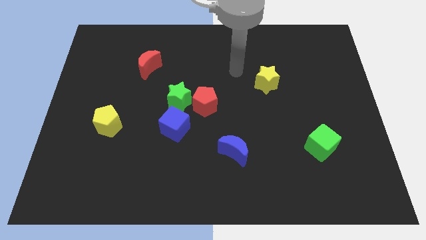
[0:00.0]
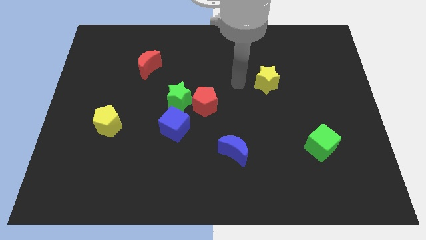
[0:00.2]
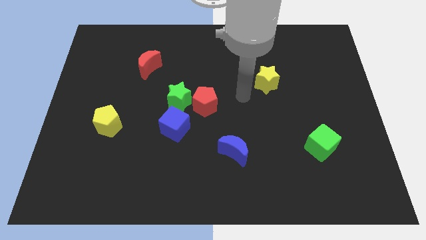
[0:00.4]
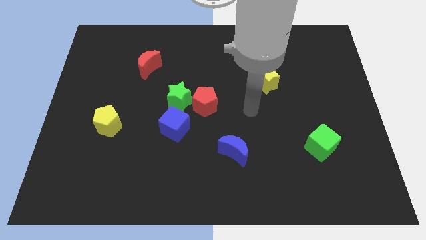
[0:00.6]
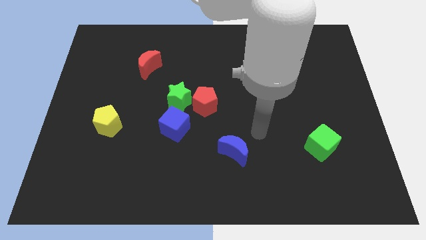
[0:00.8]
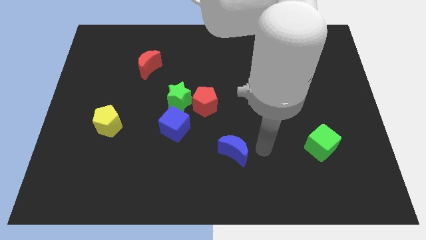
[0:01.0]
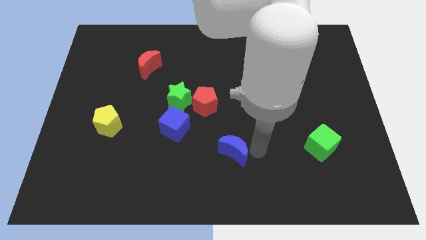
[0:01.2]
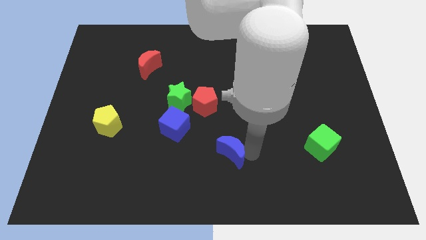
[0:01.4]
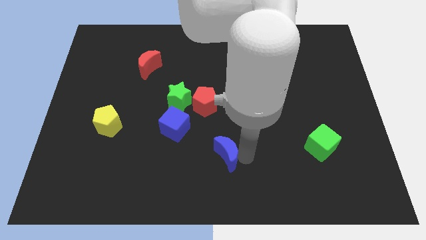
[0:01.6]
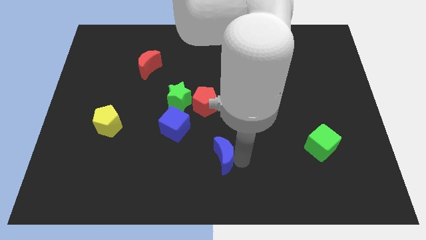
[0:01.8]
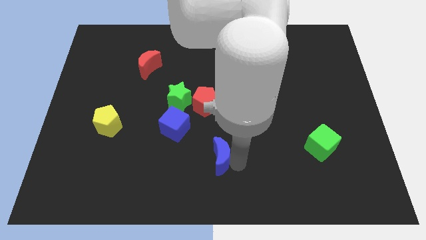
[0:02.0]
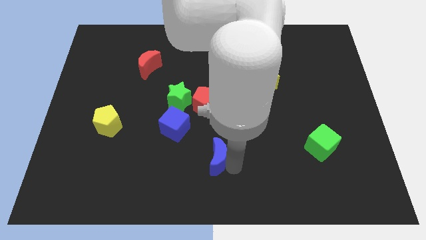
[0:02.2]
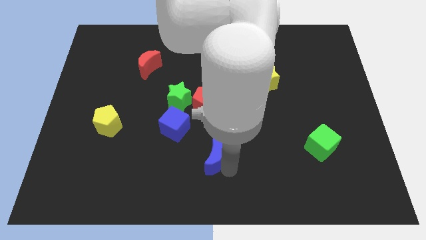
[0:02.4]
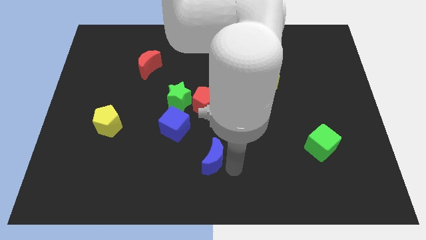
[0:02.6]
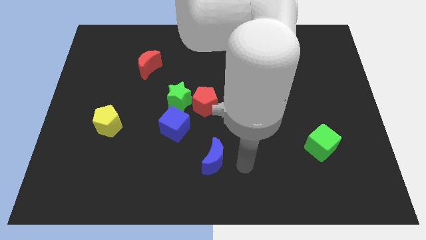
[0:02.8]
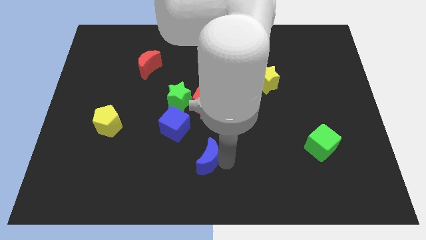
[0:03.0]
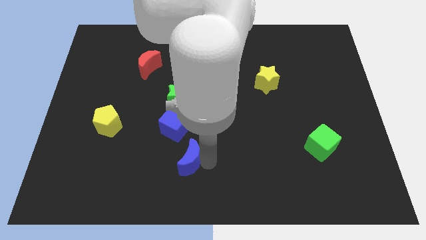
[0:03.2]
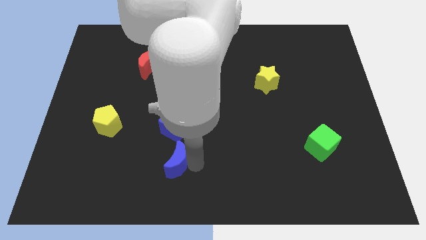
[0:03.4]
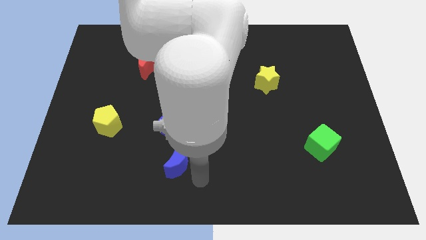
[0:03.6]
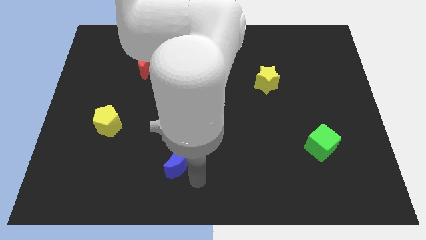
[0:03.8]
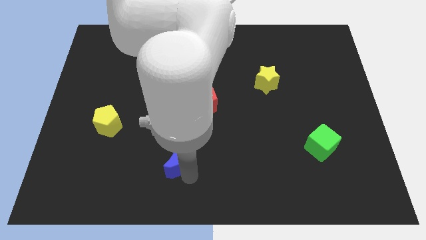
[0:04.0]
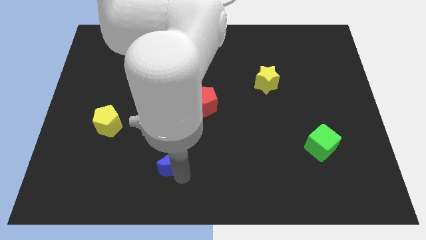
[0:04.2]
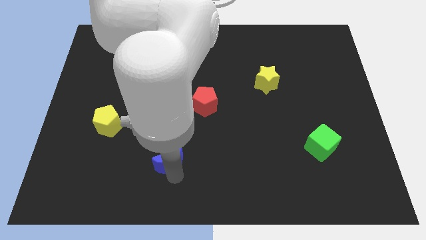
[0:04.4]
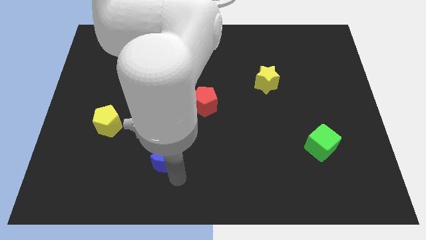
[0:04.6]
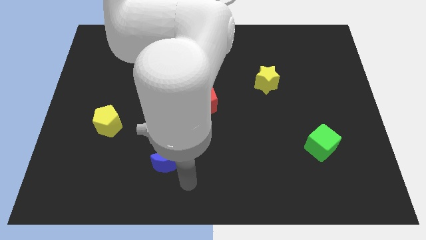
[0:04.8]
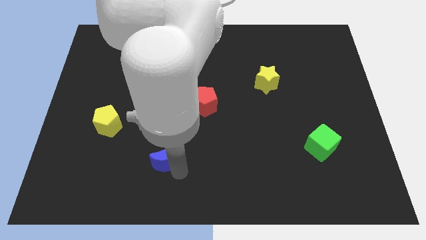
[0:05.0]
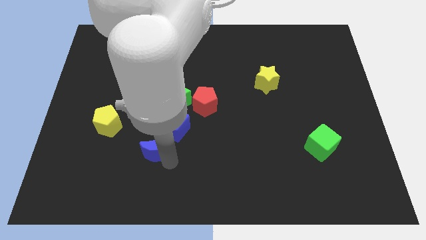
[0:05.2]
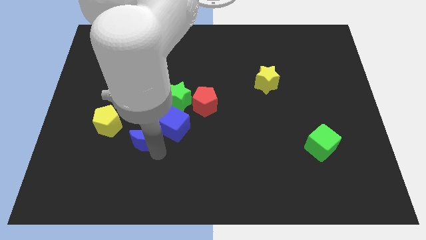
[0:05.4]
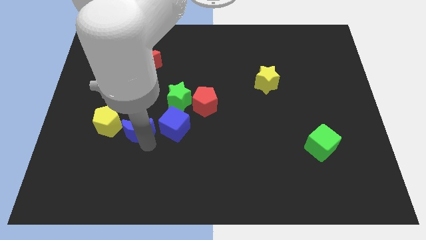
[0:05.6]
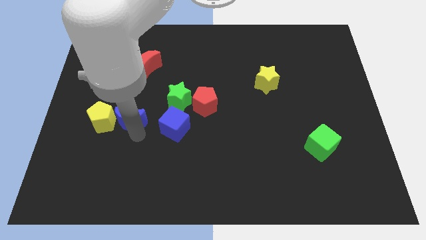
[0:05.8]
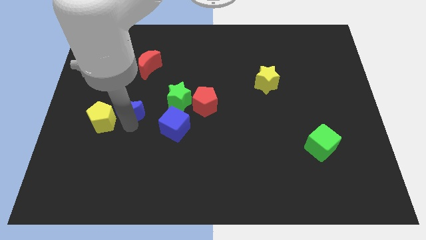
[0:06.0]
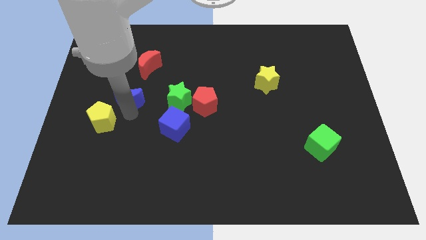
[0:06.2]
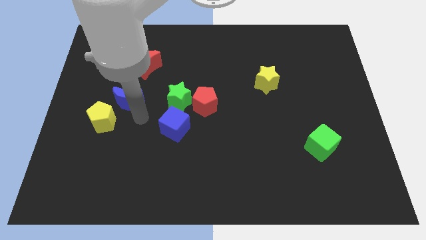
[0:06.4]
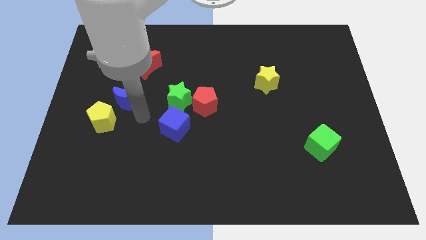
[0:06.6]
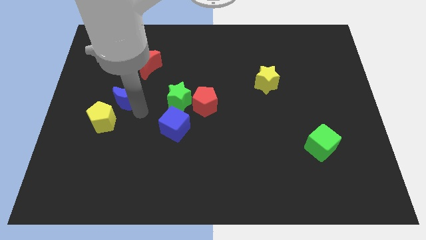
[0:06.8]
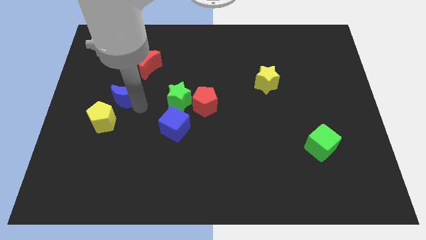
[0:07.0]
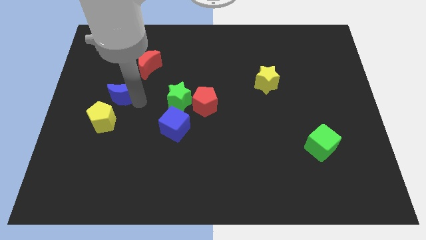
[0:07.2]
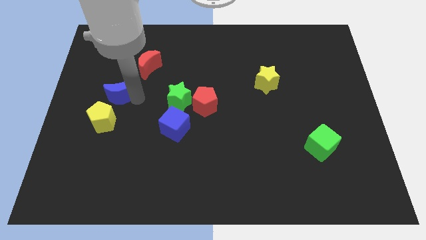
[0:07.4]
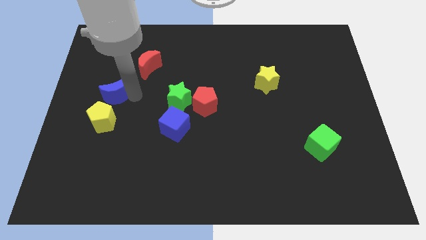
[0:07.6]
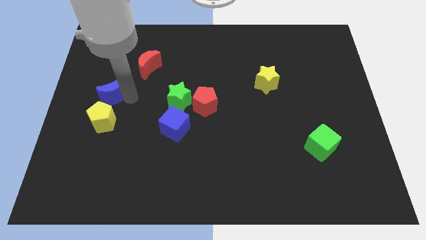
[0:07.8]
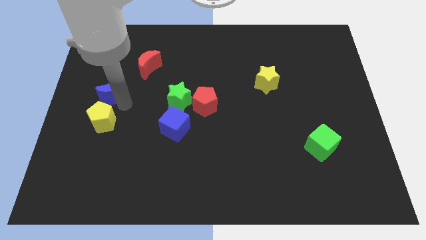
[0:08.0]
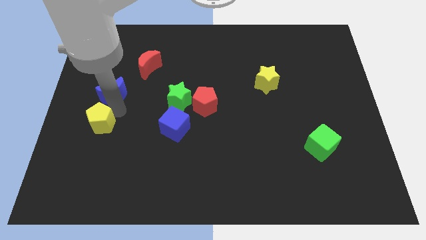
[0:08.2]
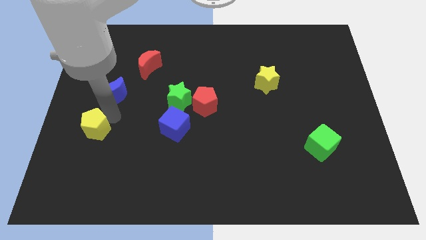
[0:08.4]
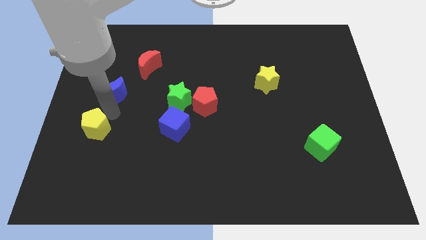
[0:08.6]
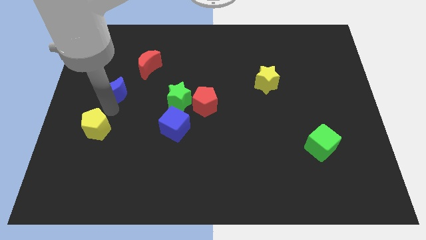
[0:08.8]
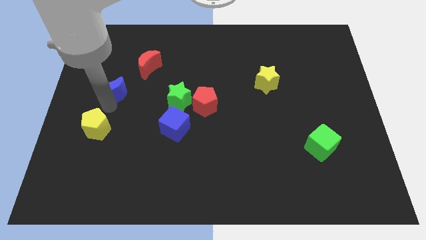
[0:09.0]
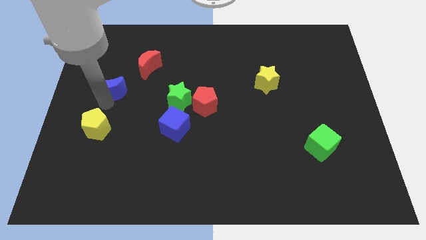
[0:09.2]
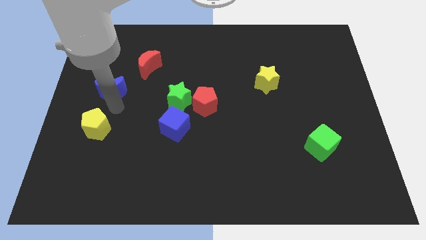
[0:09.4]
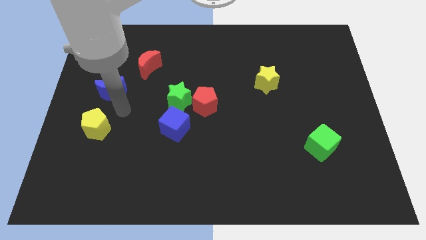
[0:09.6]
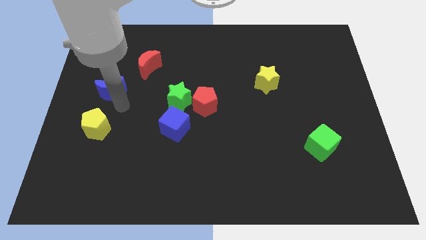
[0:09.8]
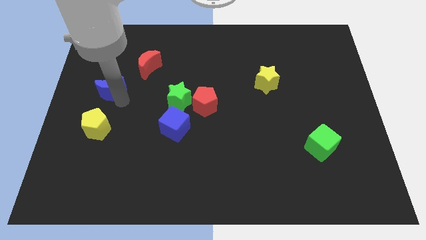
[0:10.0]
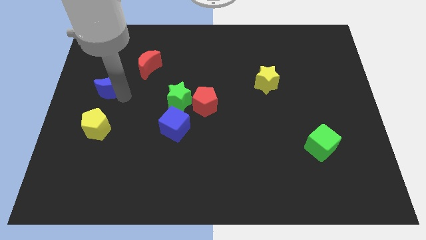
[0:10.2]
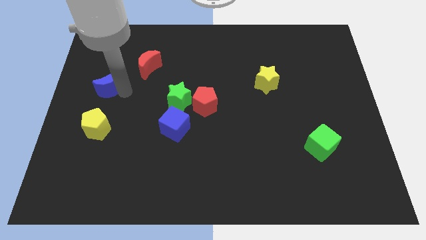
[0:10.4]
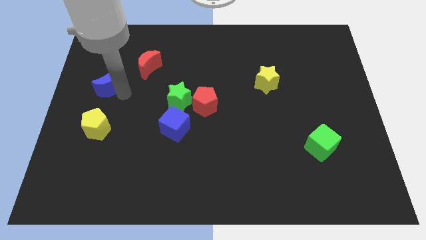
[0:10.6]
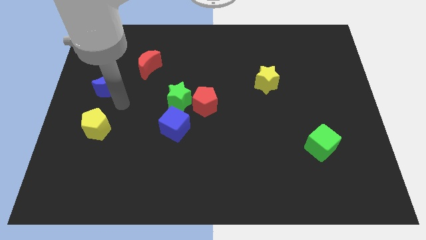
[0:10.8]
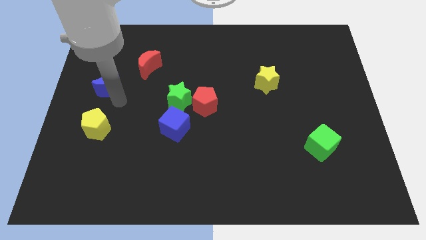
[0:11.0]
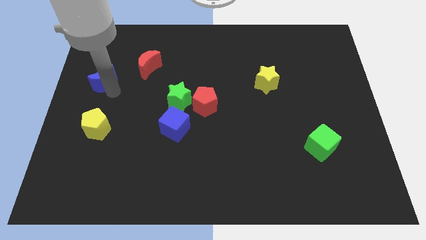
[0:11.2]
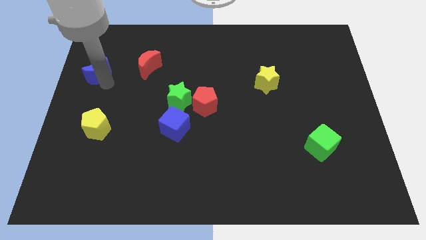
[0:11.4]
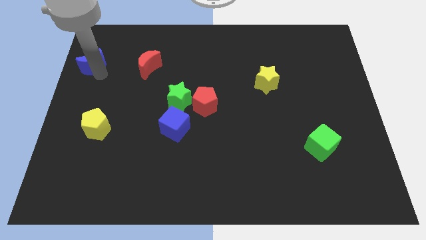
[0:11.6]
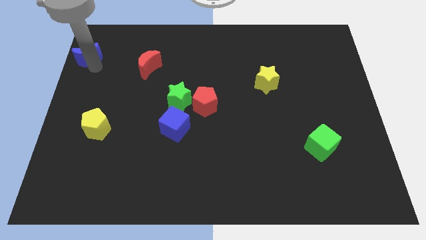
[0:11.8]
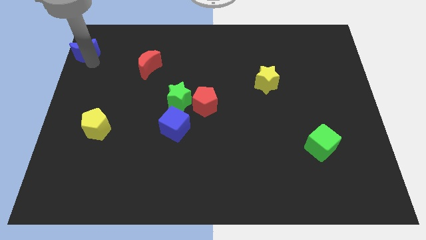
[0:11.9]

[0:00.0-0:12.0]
put the blue moon to the top left of the board
